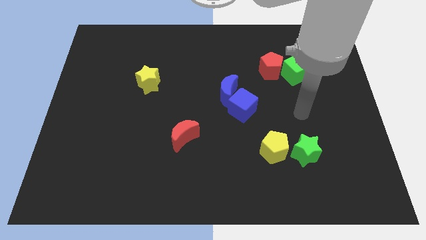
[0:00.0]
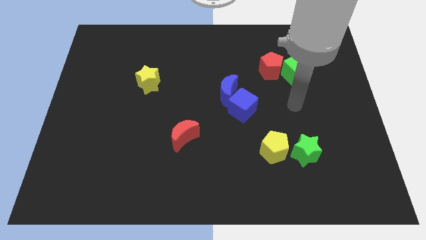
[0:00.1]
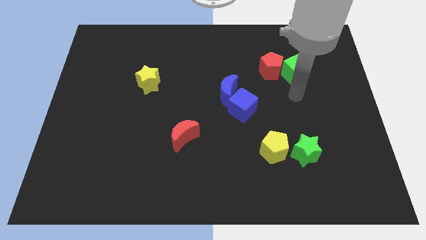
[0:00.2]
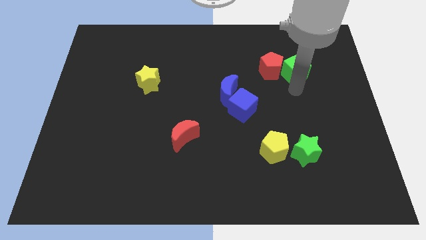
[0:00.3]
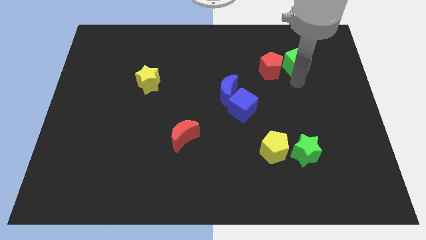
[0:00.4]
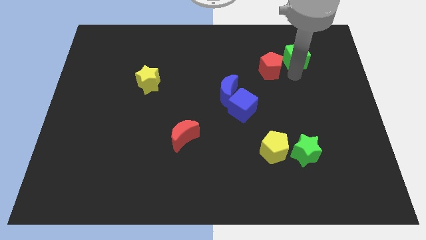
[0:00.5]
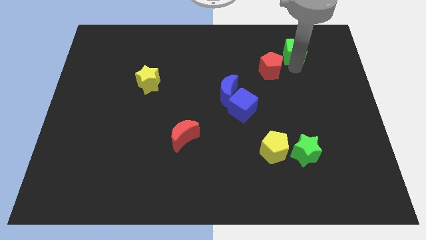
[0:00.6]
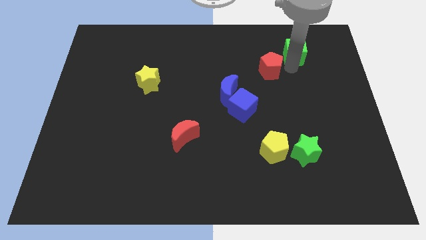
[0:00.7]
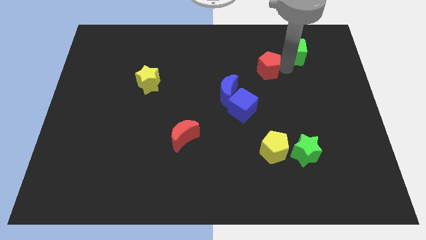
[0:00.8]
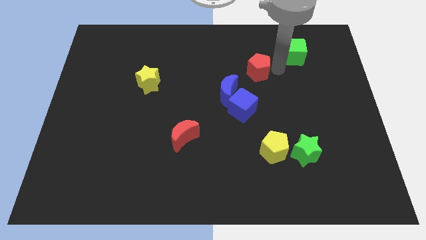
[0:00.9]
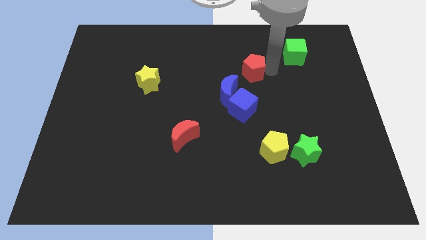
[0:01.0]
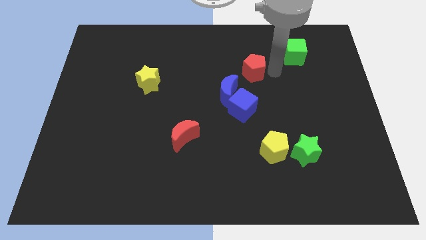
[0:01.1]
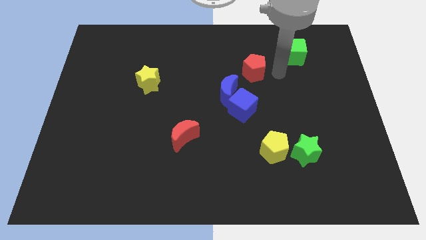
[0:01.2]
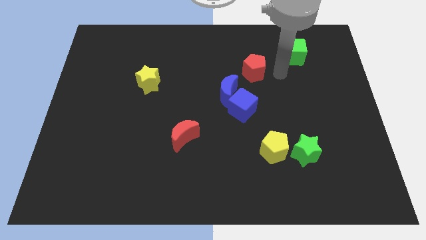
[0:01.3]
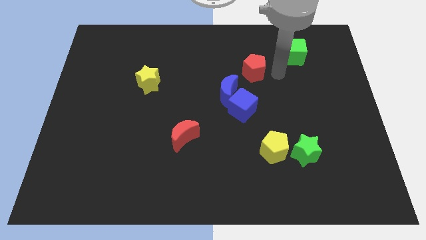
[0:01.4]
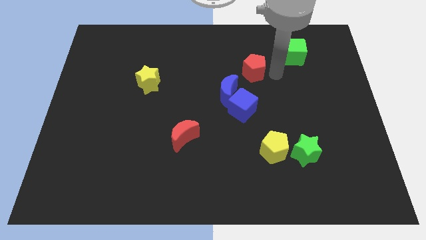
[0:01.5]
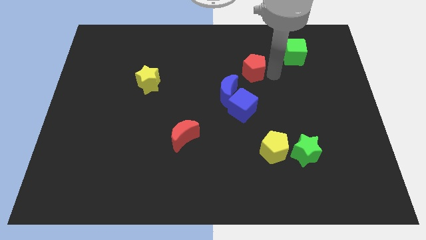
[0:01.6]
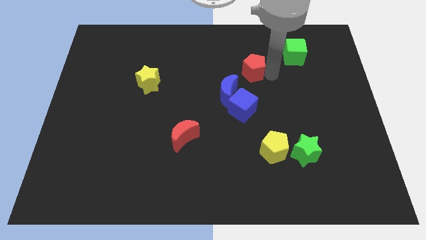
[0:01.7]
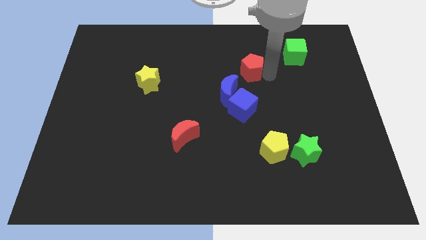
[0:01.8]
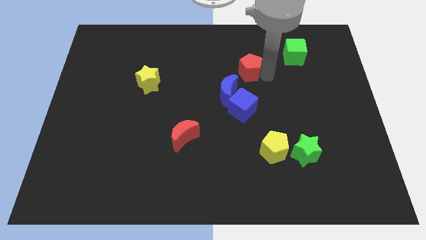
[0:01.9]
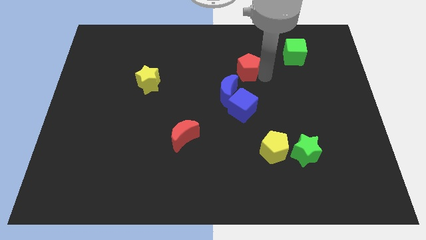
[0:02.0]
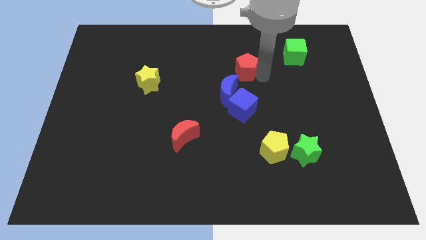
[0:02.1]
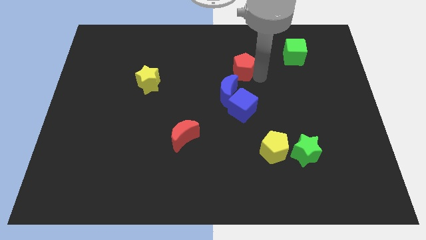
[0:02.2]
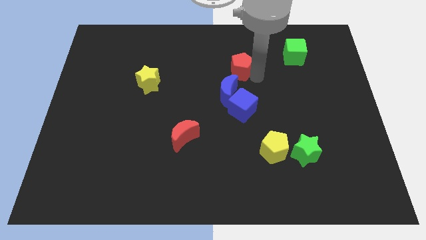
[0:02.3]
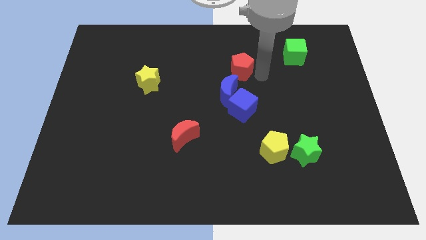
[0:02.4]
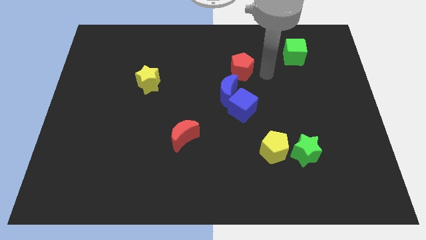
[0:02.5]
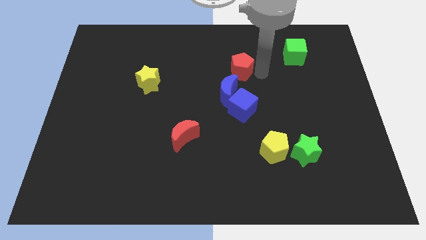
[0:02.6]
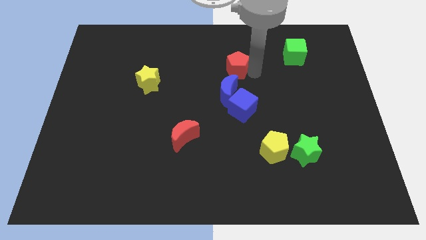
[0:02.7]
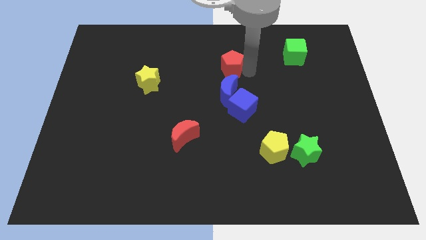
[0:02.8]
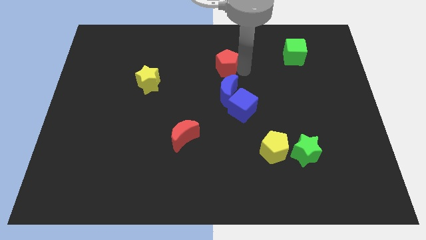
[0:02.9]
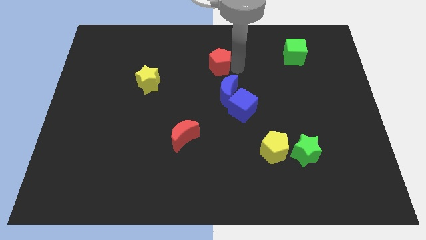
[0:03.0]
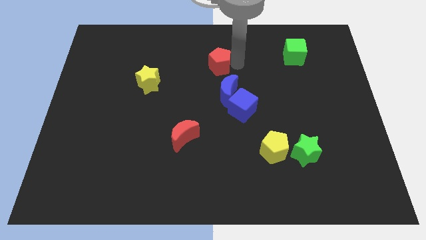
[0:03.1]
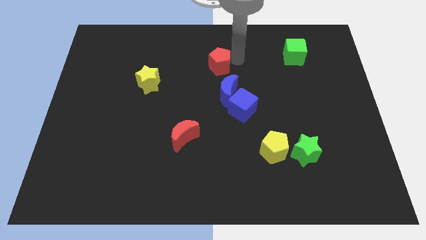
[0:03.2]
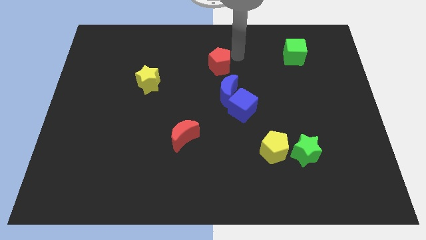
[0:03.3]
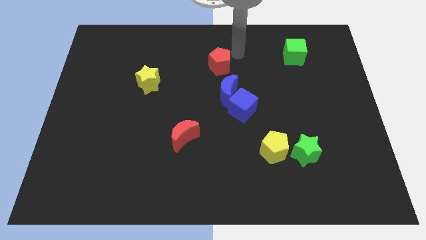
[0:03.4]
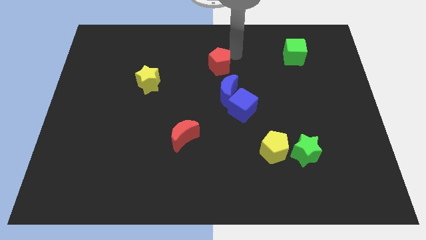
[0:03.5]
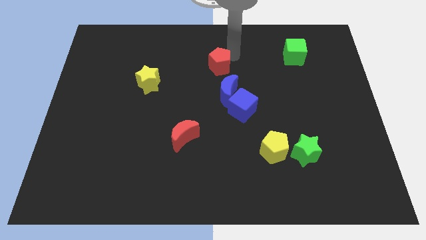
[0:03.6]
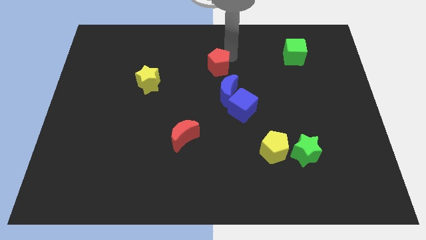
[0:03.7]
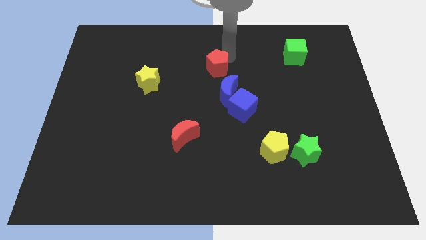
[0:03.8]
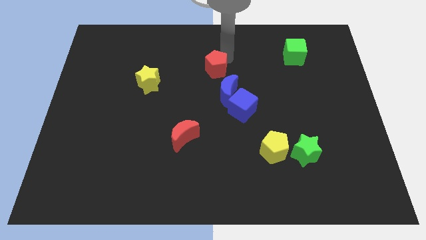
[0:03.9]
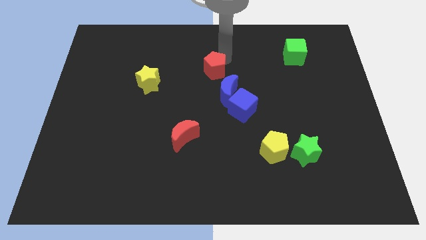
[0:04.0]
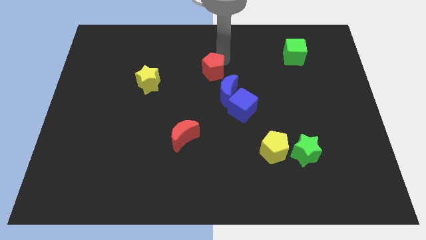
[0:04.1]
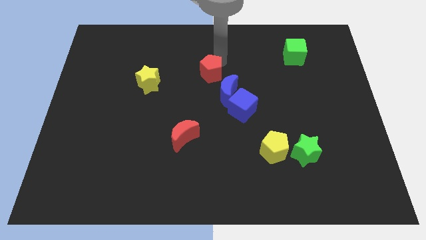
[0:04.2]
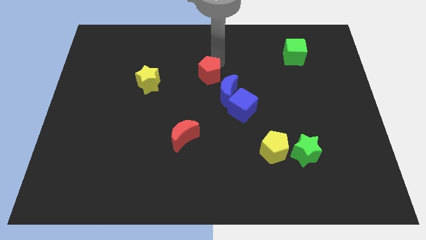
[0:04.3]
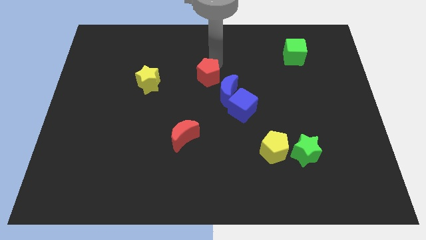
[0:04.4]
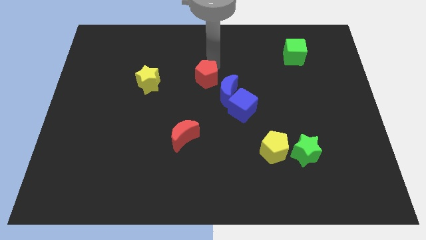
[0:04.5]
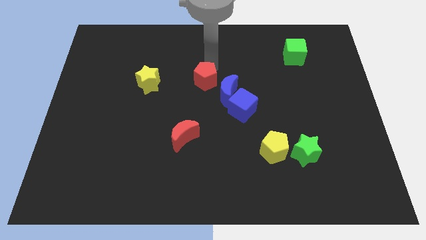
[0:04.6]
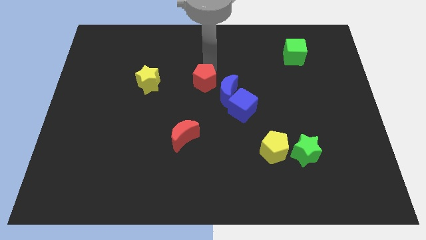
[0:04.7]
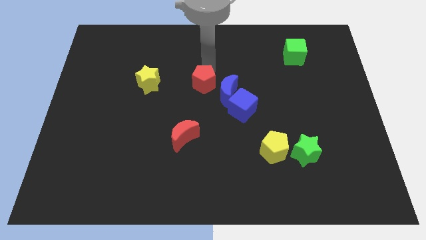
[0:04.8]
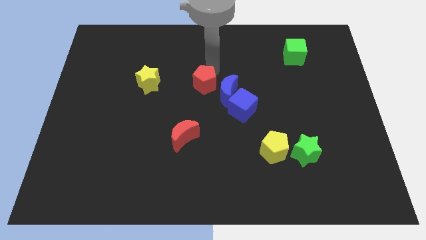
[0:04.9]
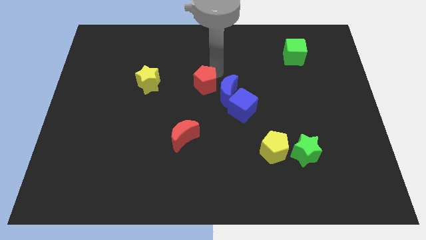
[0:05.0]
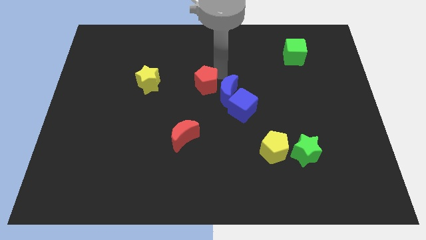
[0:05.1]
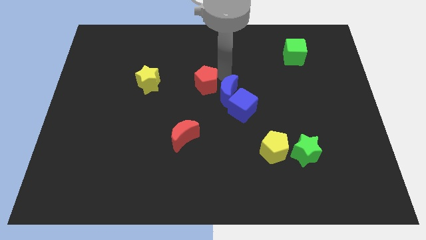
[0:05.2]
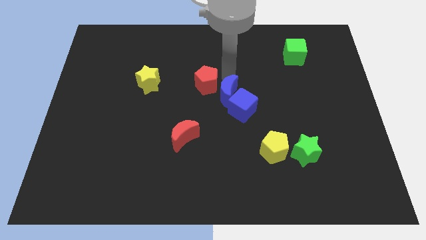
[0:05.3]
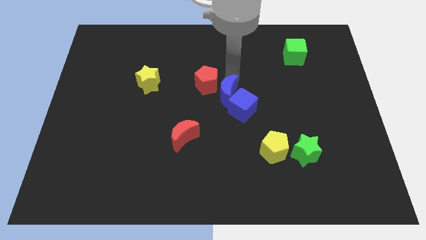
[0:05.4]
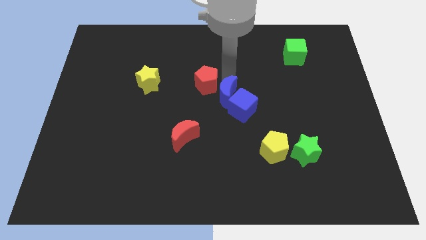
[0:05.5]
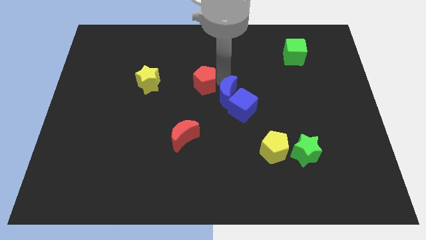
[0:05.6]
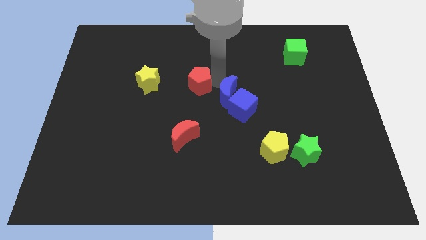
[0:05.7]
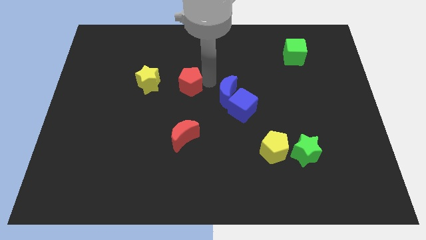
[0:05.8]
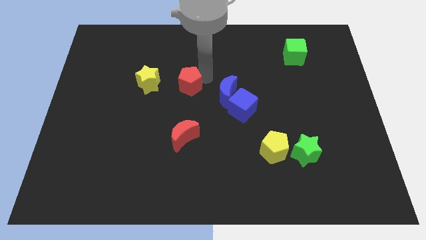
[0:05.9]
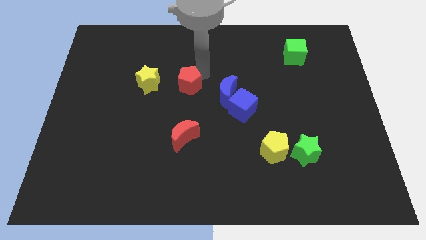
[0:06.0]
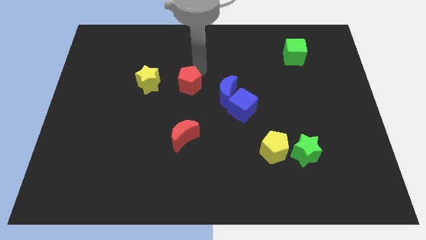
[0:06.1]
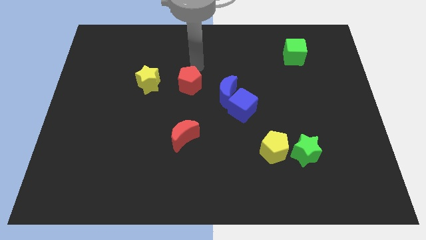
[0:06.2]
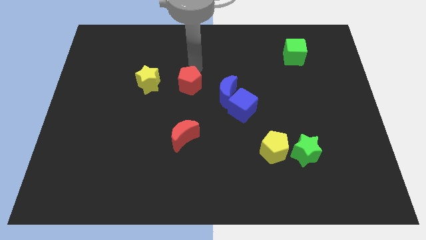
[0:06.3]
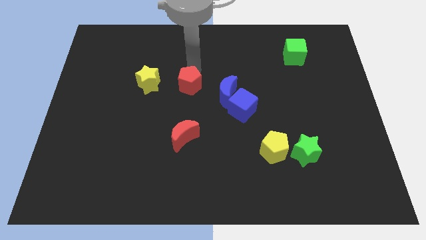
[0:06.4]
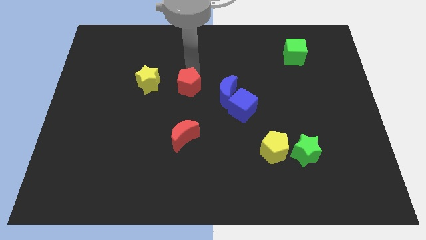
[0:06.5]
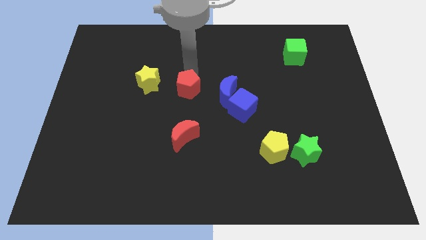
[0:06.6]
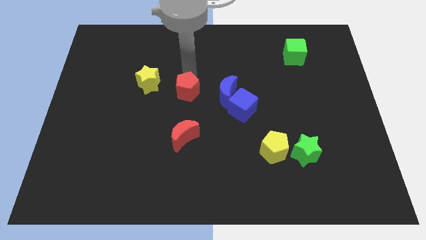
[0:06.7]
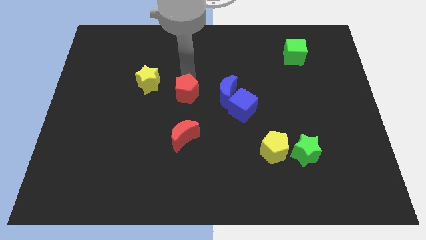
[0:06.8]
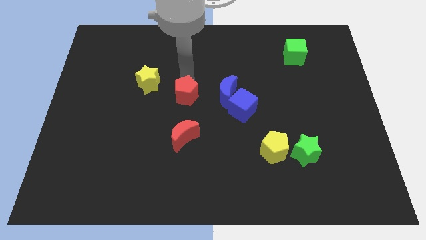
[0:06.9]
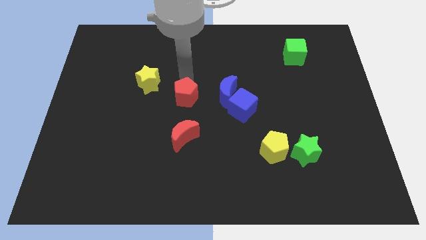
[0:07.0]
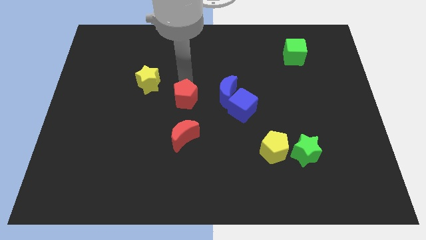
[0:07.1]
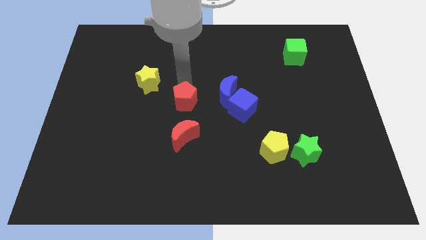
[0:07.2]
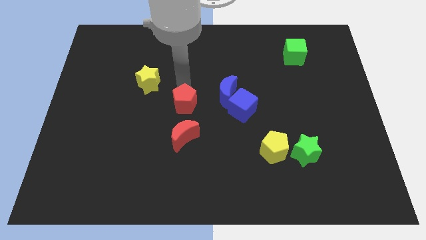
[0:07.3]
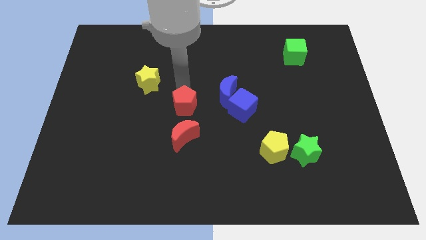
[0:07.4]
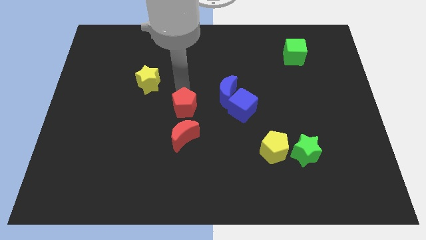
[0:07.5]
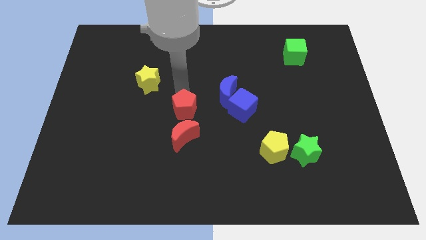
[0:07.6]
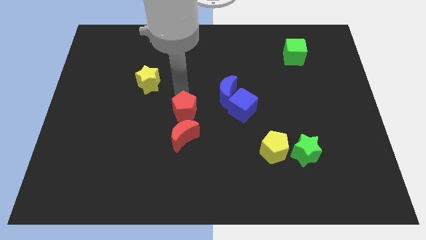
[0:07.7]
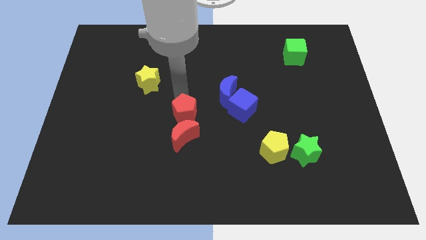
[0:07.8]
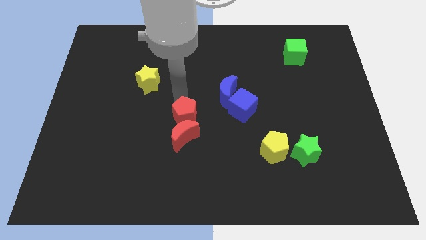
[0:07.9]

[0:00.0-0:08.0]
put the red pentagon next to the red moon
